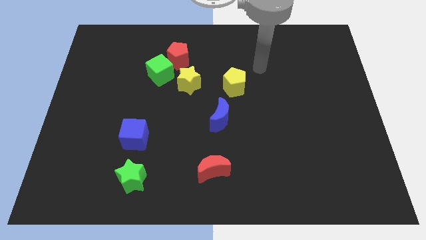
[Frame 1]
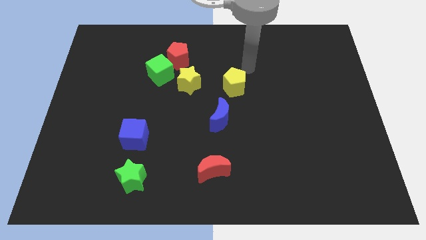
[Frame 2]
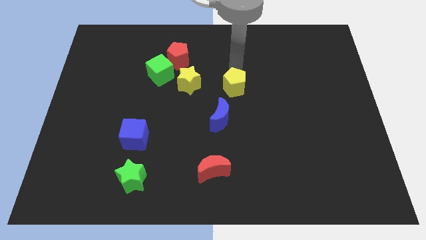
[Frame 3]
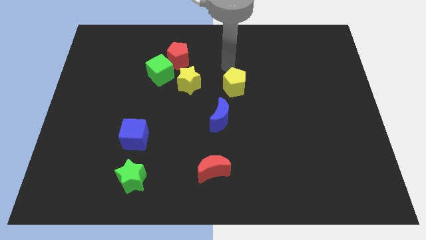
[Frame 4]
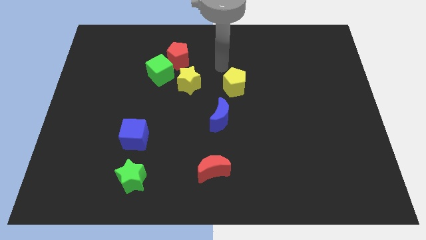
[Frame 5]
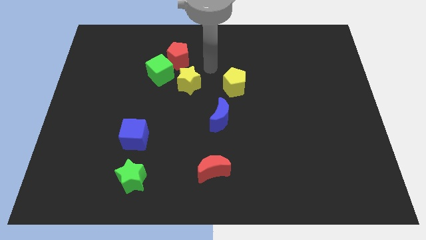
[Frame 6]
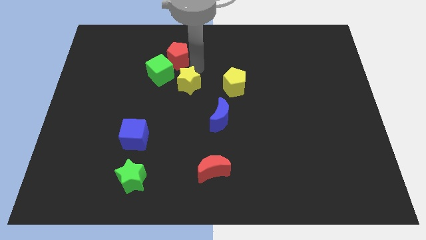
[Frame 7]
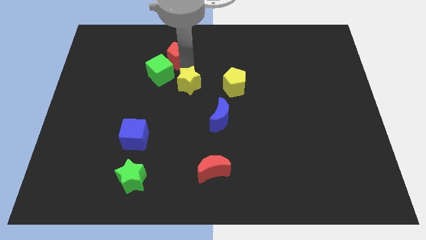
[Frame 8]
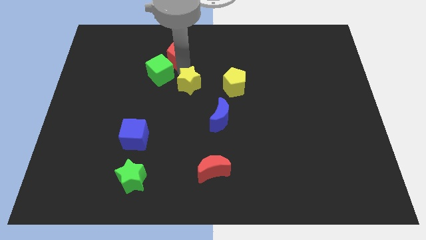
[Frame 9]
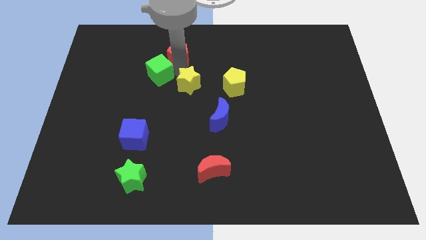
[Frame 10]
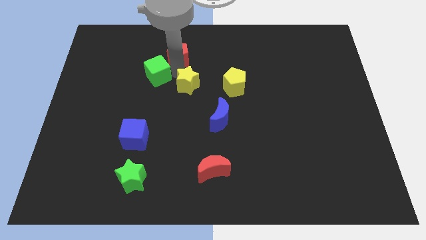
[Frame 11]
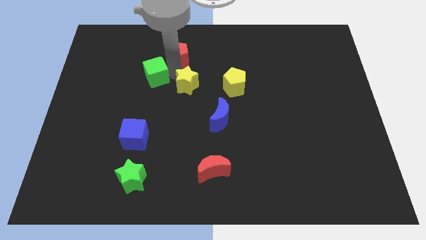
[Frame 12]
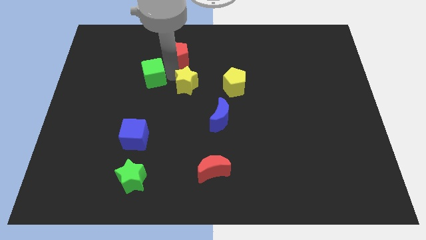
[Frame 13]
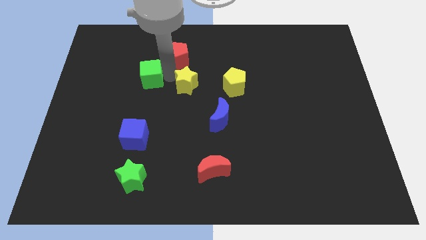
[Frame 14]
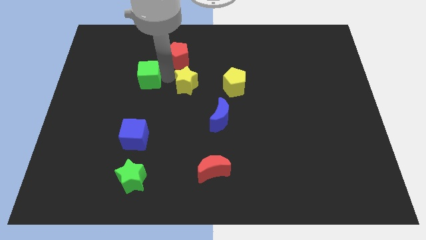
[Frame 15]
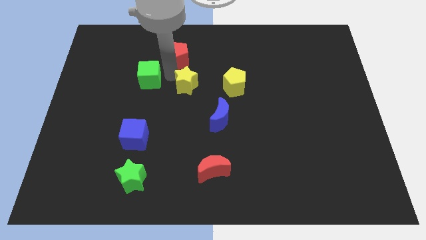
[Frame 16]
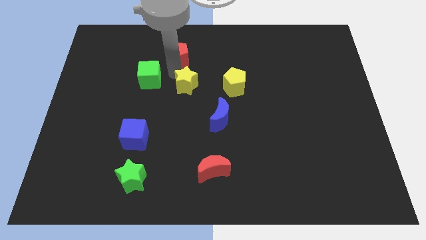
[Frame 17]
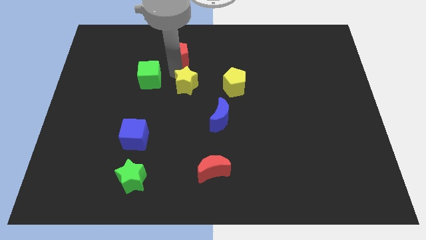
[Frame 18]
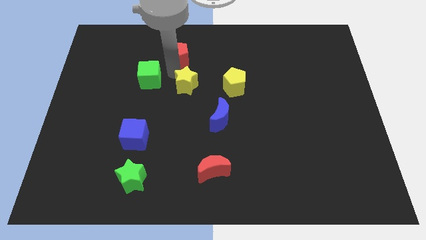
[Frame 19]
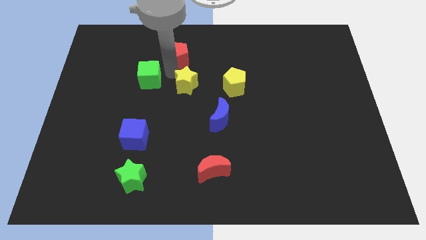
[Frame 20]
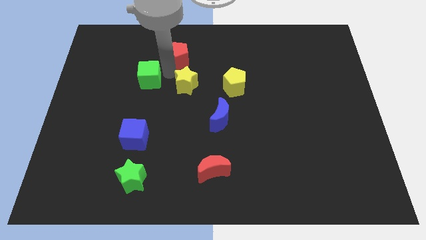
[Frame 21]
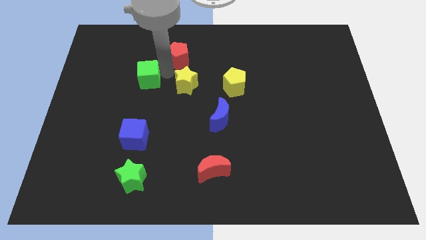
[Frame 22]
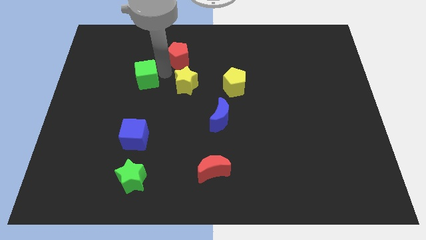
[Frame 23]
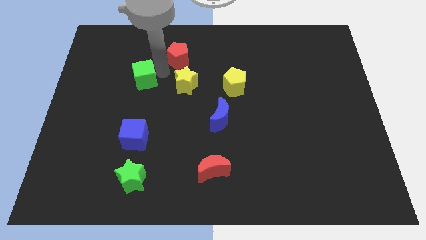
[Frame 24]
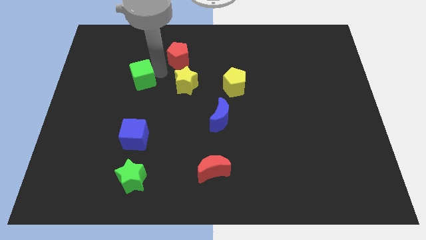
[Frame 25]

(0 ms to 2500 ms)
move the green cube away from the red pentagon and yellow star

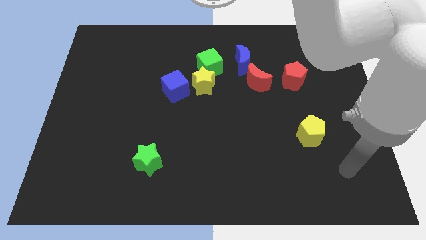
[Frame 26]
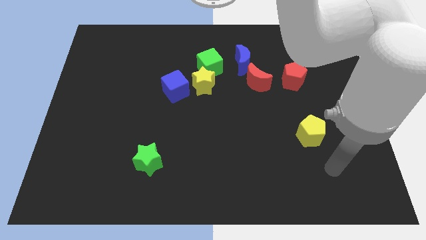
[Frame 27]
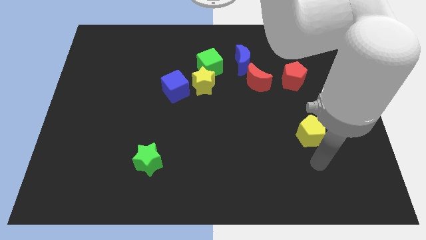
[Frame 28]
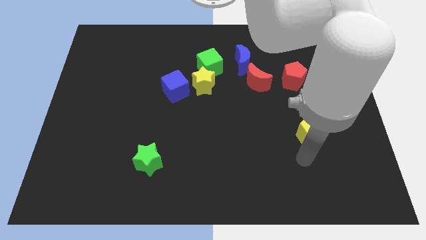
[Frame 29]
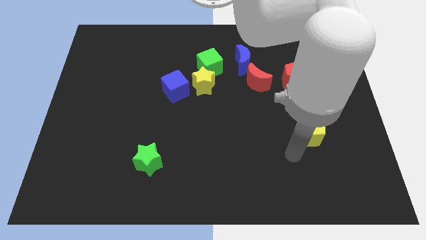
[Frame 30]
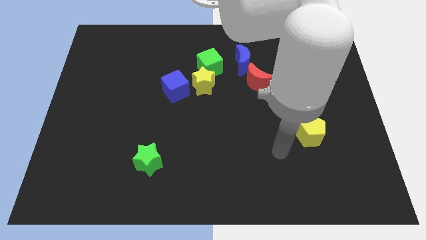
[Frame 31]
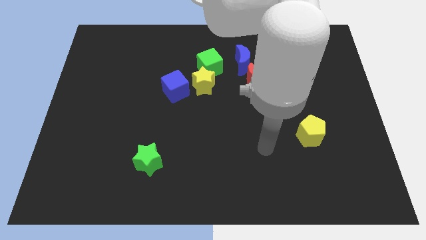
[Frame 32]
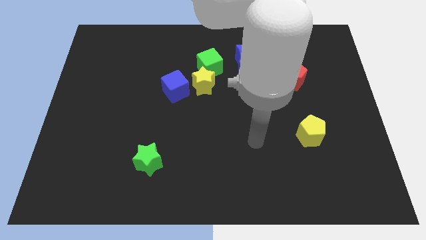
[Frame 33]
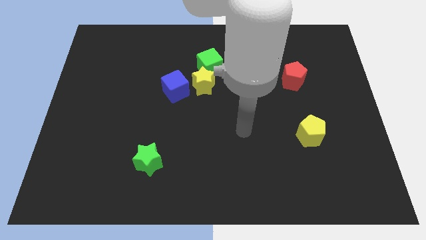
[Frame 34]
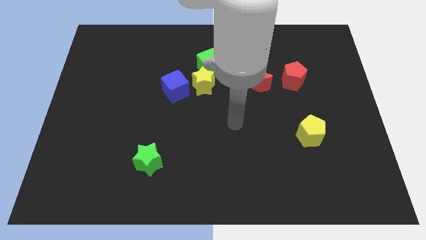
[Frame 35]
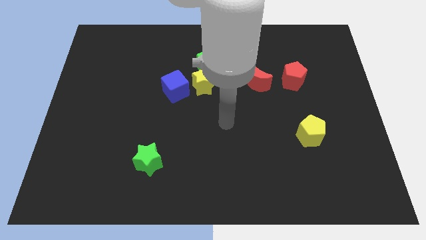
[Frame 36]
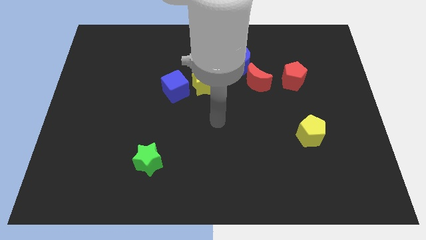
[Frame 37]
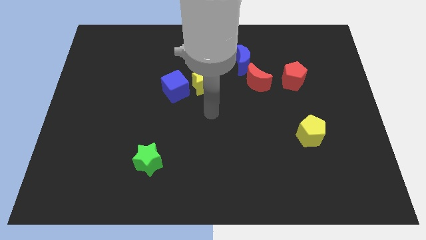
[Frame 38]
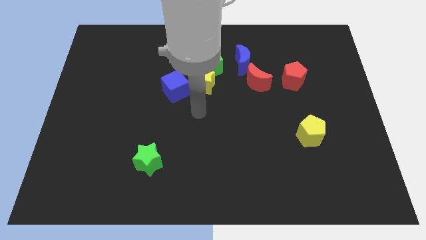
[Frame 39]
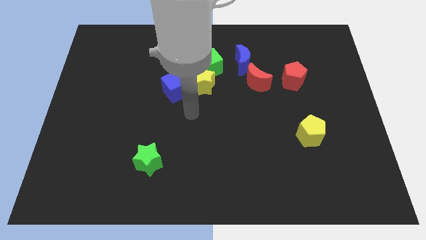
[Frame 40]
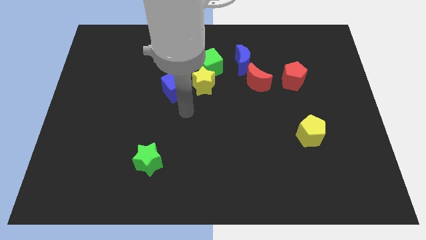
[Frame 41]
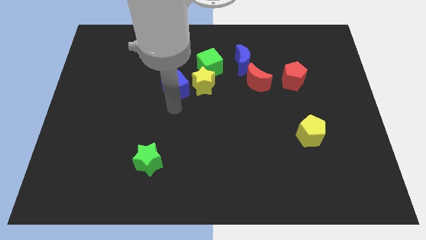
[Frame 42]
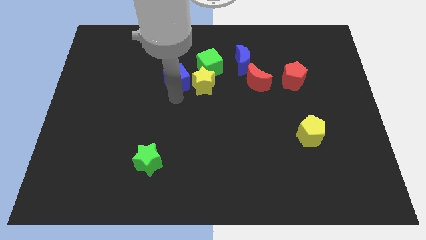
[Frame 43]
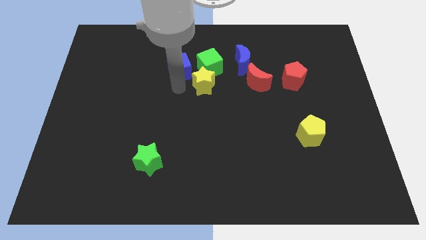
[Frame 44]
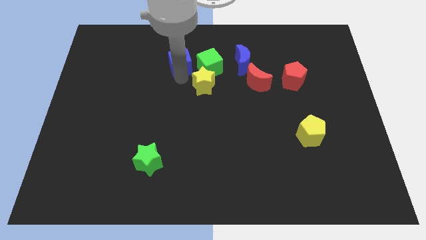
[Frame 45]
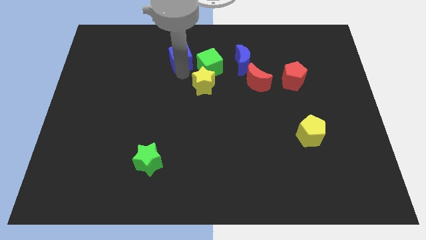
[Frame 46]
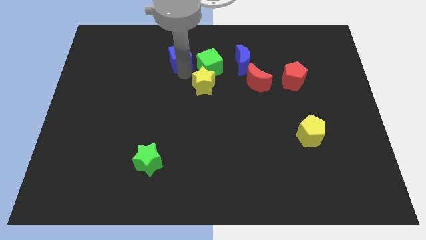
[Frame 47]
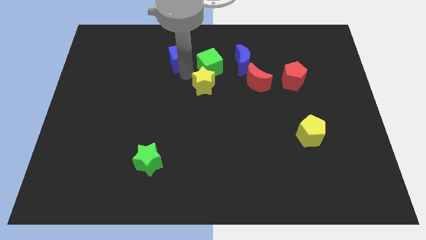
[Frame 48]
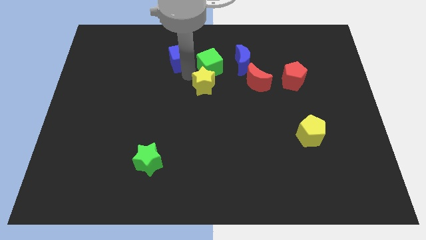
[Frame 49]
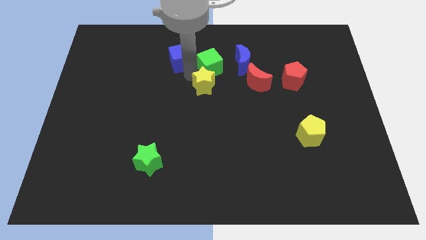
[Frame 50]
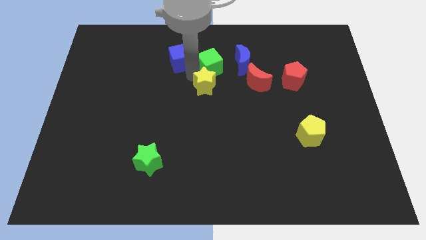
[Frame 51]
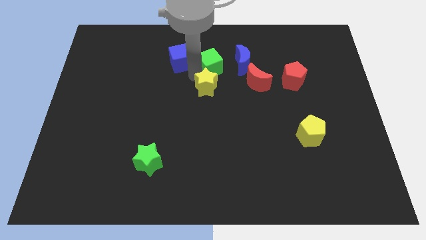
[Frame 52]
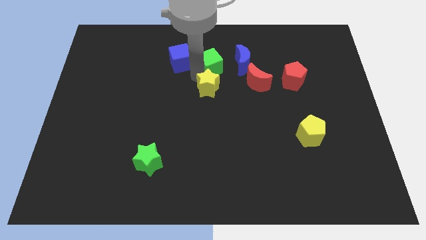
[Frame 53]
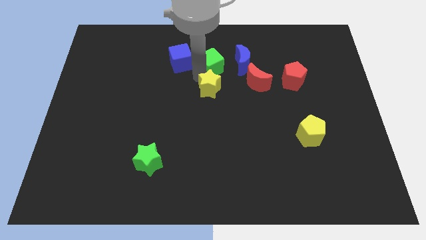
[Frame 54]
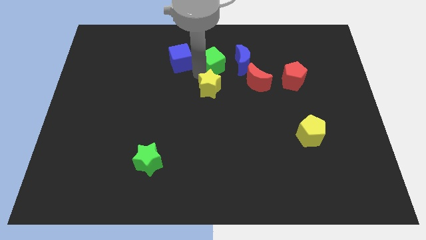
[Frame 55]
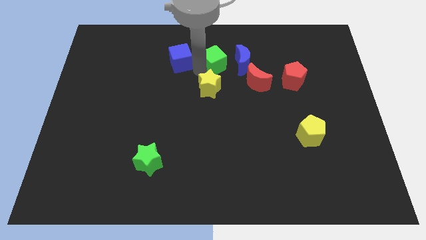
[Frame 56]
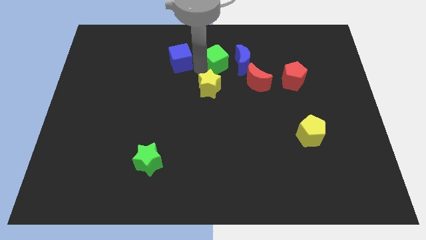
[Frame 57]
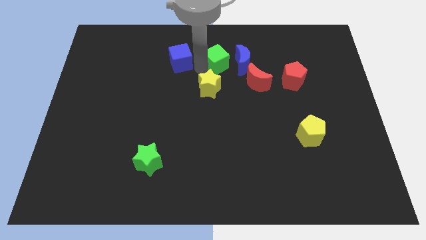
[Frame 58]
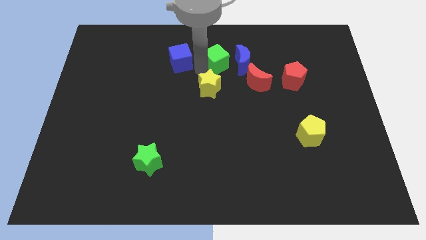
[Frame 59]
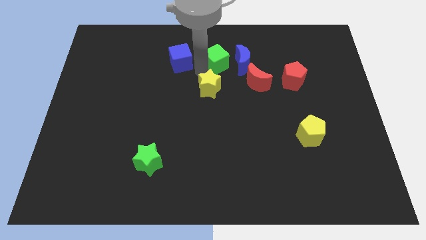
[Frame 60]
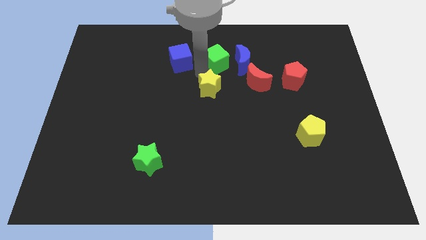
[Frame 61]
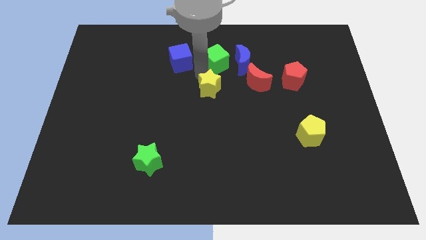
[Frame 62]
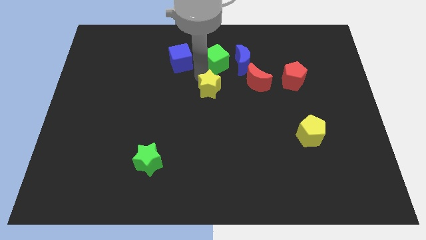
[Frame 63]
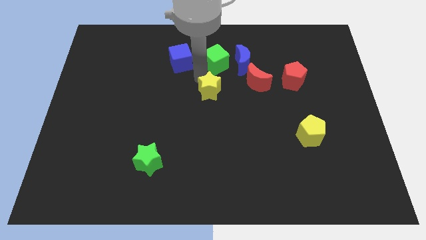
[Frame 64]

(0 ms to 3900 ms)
move the yellow star away from the green cube and blue cube

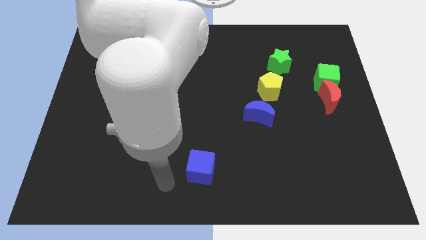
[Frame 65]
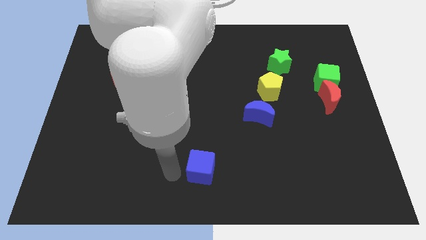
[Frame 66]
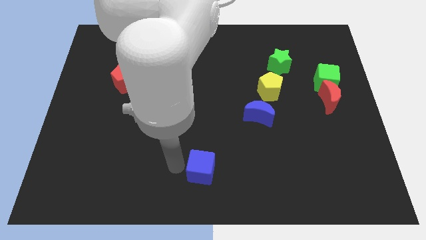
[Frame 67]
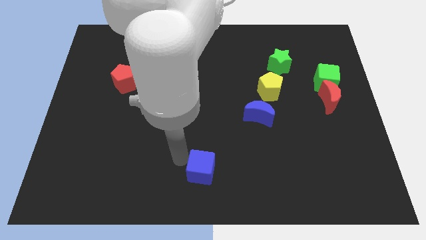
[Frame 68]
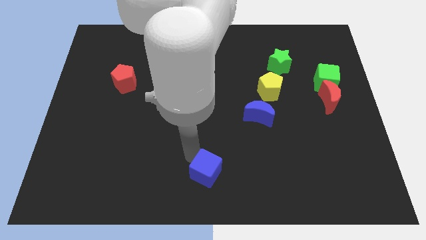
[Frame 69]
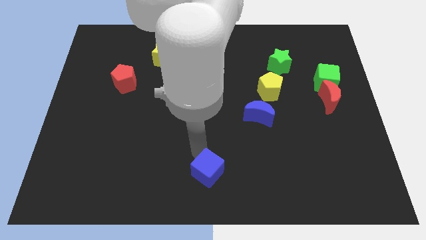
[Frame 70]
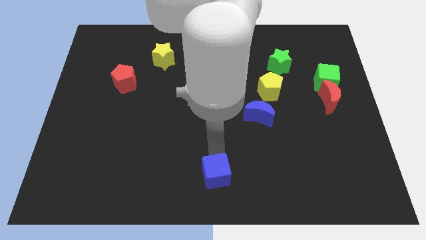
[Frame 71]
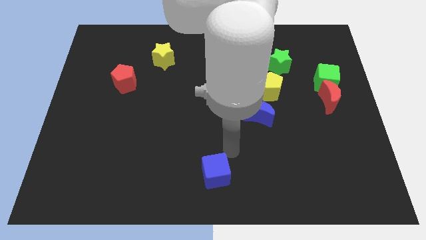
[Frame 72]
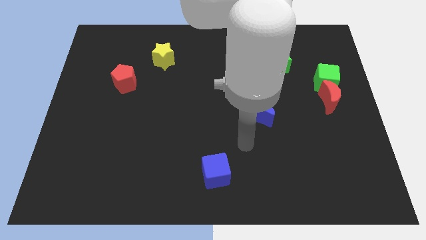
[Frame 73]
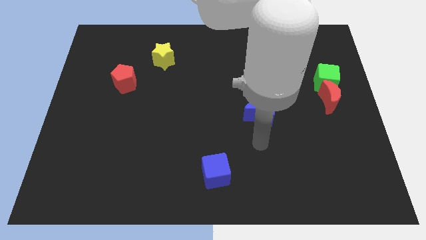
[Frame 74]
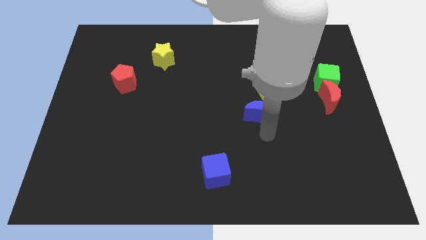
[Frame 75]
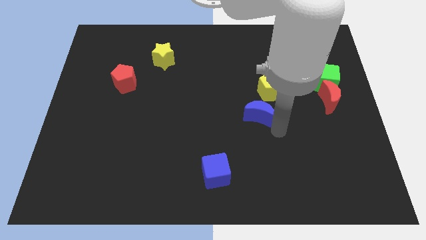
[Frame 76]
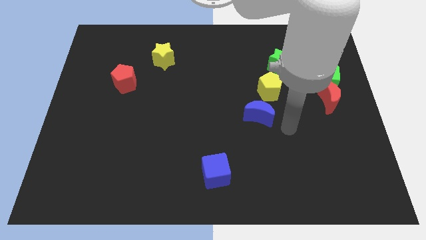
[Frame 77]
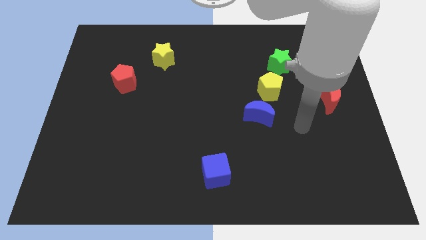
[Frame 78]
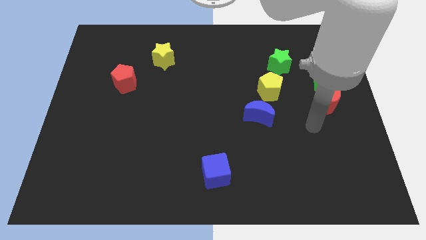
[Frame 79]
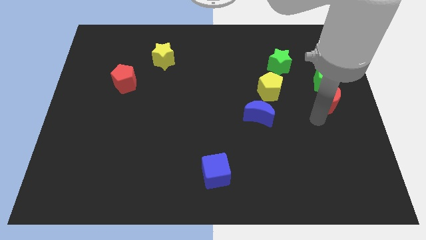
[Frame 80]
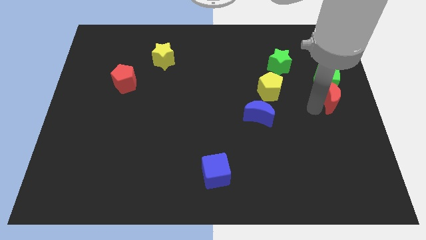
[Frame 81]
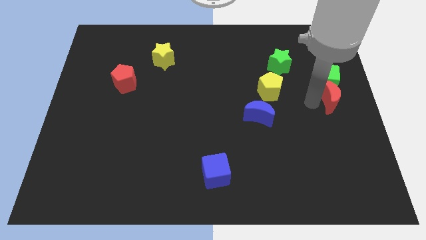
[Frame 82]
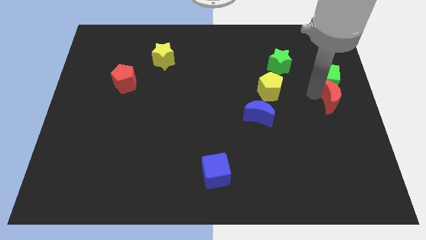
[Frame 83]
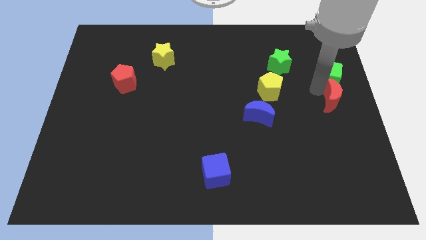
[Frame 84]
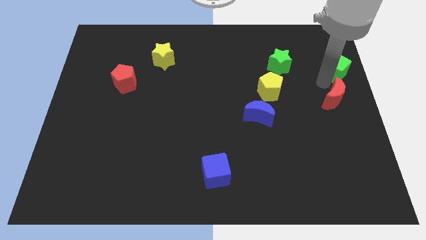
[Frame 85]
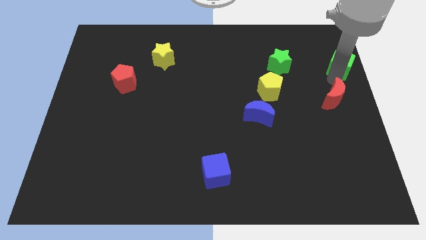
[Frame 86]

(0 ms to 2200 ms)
move the red moon away from the green cube

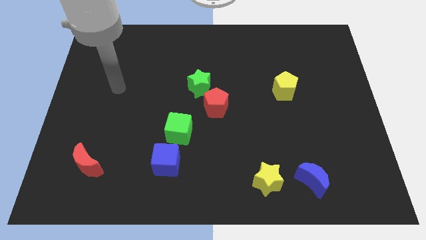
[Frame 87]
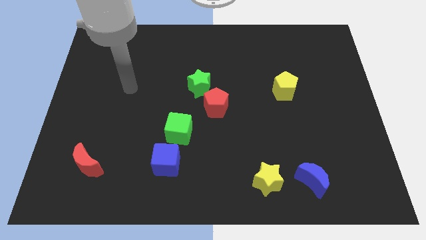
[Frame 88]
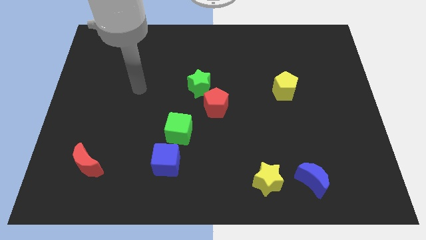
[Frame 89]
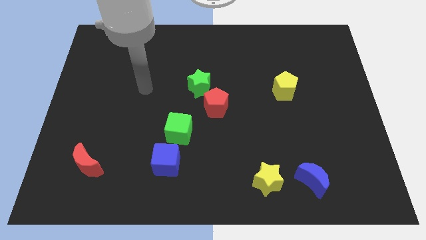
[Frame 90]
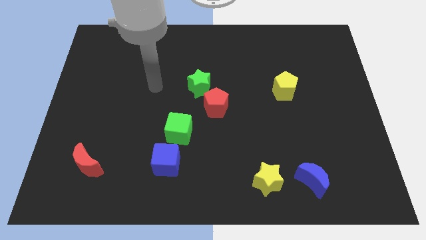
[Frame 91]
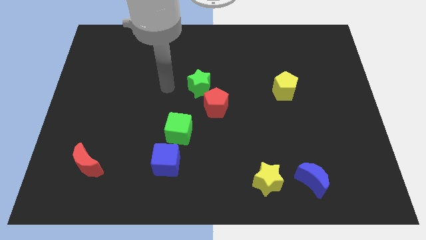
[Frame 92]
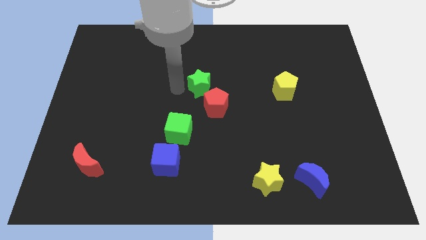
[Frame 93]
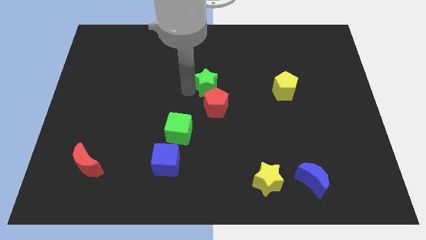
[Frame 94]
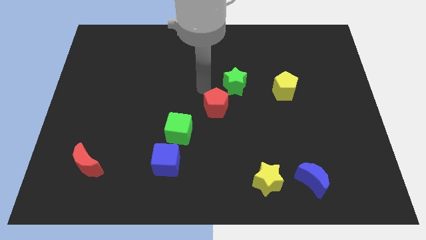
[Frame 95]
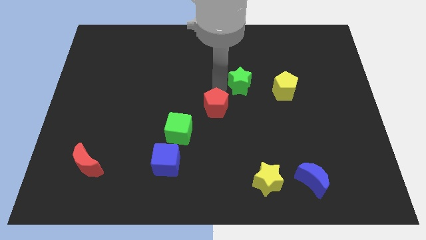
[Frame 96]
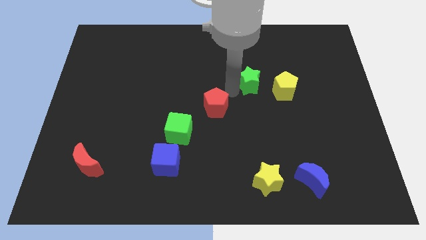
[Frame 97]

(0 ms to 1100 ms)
separate the red pentagon from the green star
